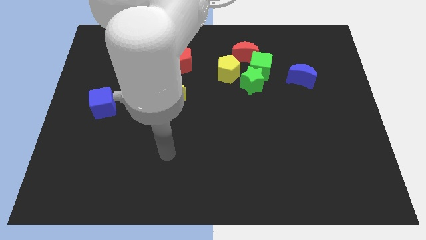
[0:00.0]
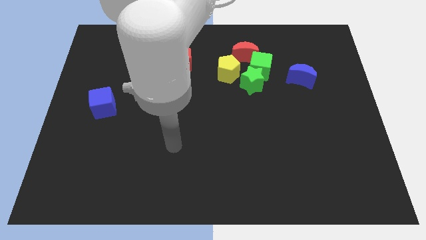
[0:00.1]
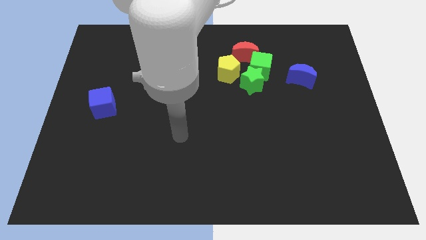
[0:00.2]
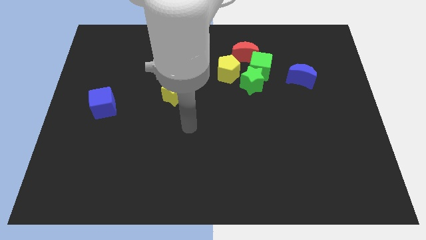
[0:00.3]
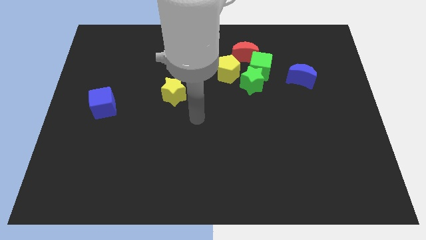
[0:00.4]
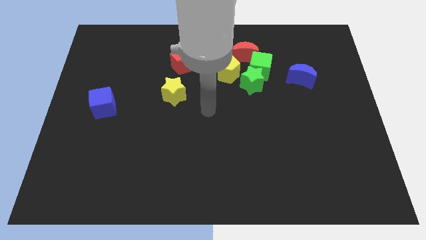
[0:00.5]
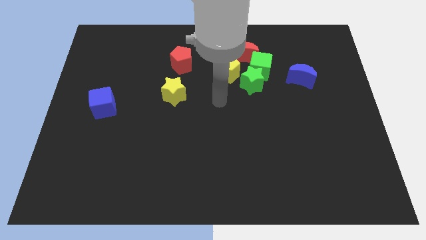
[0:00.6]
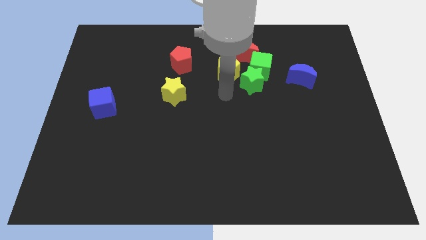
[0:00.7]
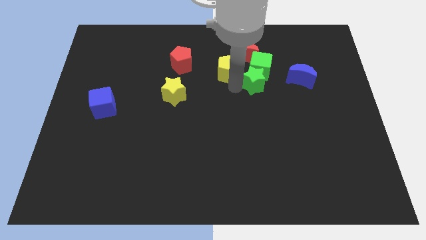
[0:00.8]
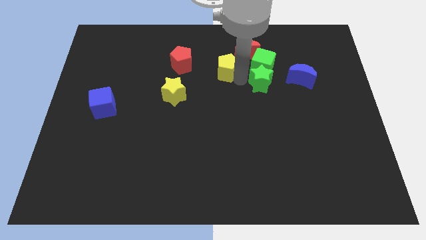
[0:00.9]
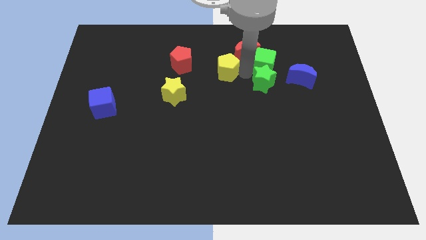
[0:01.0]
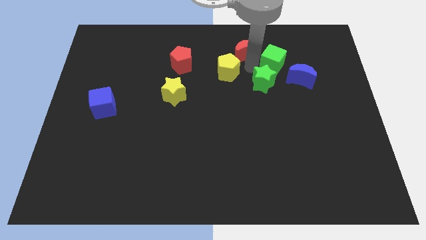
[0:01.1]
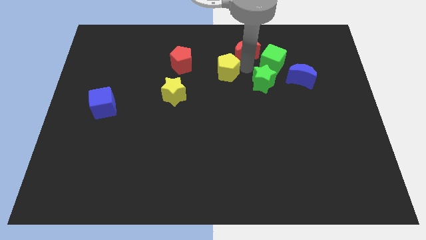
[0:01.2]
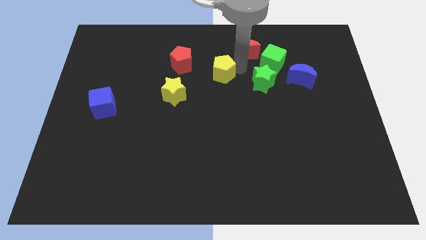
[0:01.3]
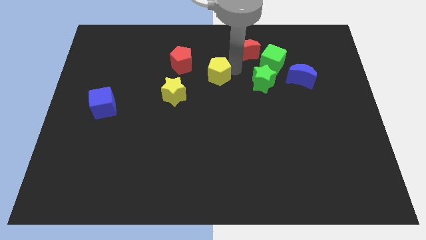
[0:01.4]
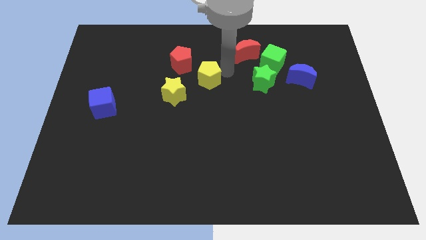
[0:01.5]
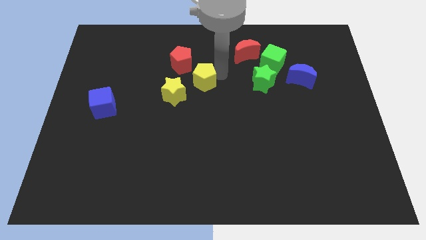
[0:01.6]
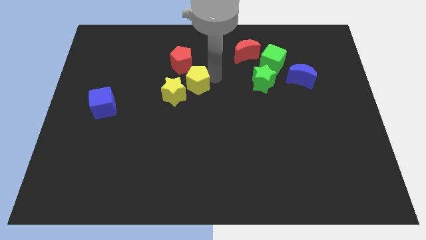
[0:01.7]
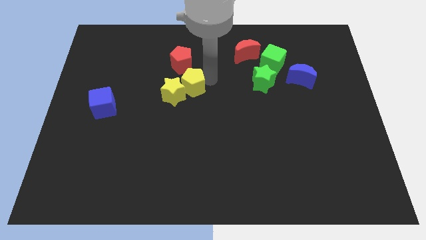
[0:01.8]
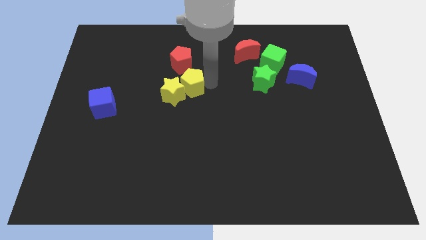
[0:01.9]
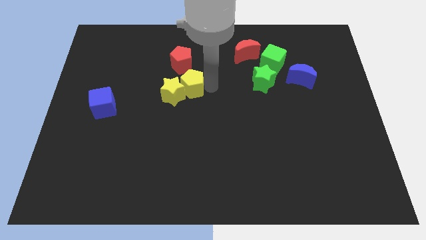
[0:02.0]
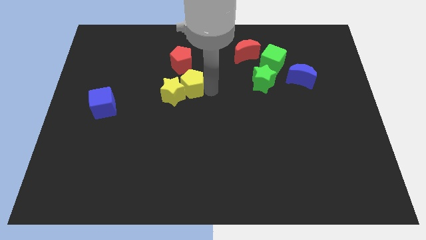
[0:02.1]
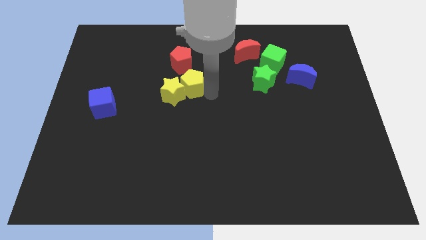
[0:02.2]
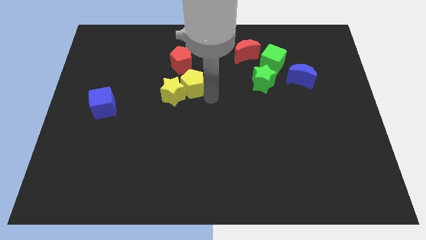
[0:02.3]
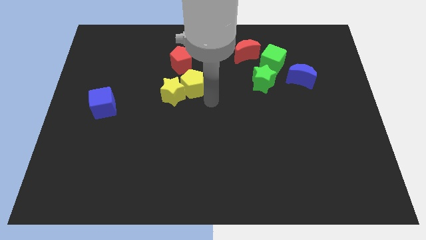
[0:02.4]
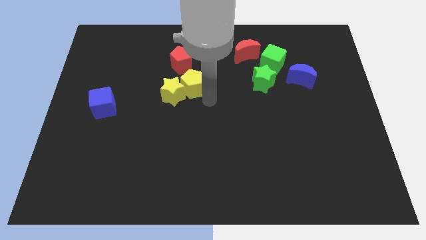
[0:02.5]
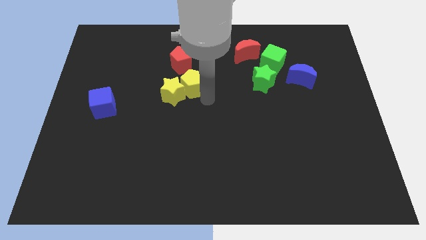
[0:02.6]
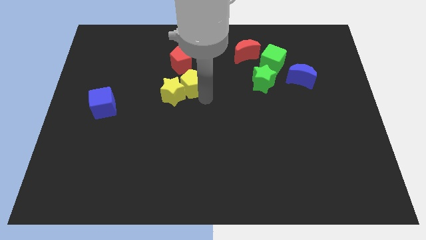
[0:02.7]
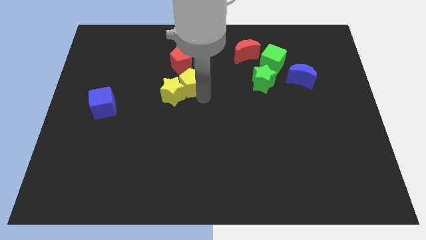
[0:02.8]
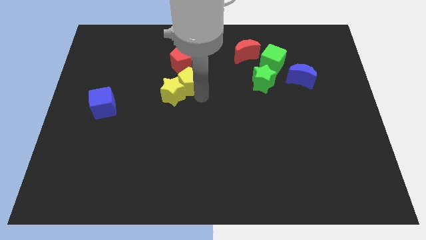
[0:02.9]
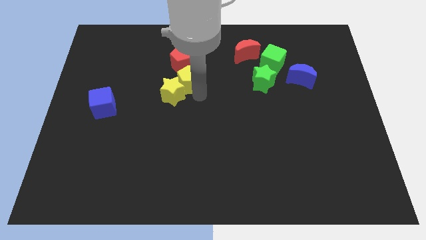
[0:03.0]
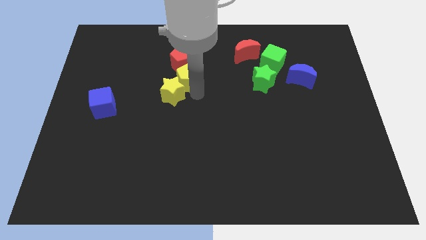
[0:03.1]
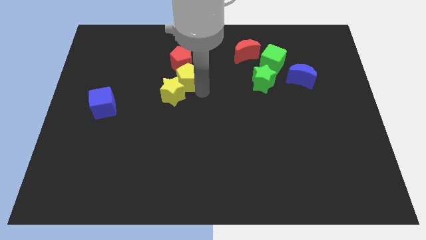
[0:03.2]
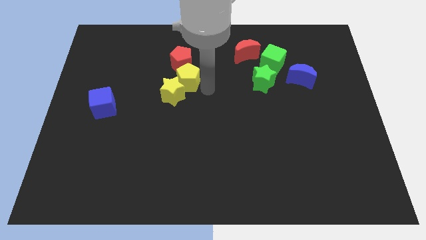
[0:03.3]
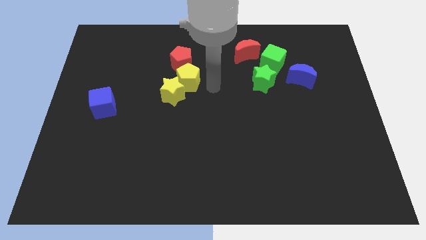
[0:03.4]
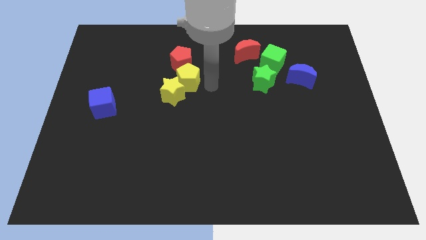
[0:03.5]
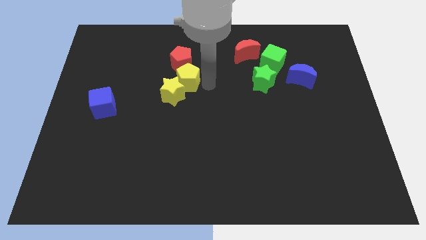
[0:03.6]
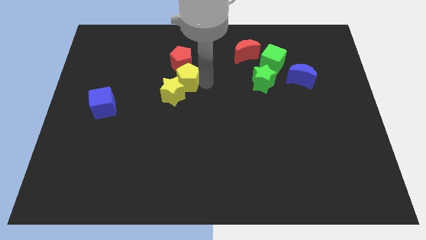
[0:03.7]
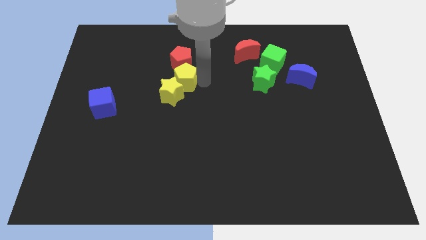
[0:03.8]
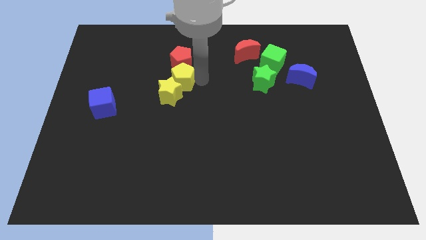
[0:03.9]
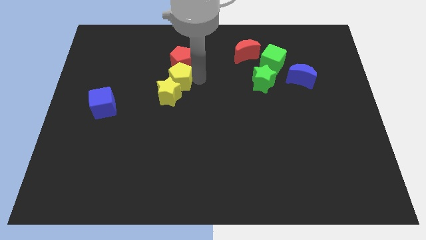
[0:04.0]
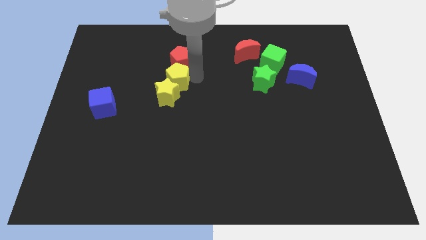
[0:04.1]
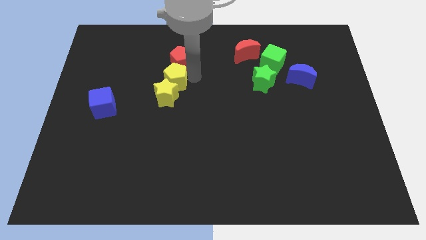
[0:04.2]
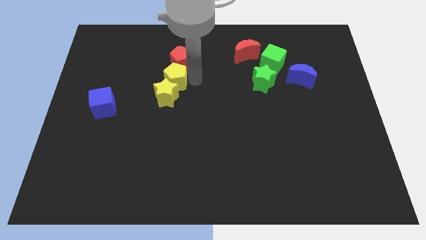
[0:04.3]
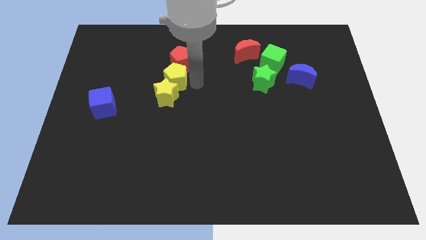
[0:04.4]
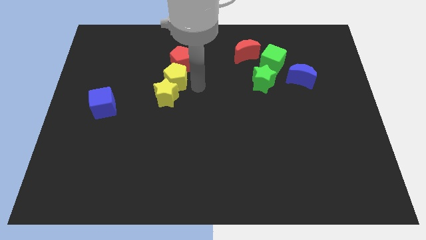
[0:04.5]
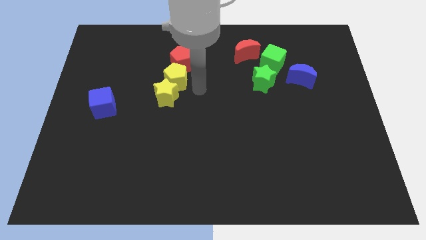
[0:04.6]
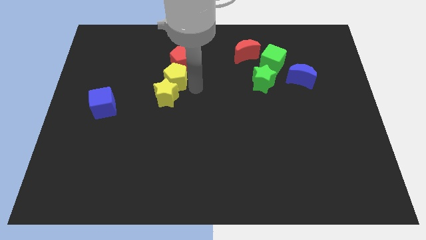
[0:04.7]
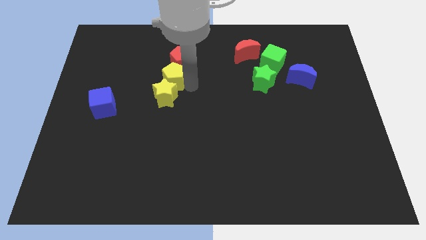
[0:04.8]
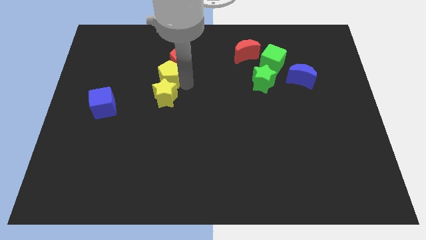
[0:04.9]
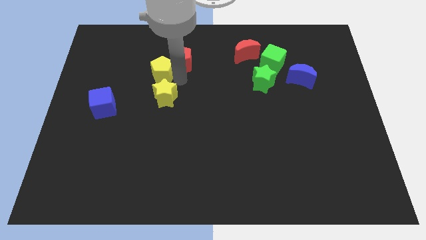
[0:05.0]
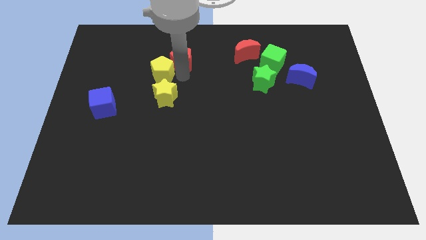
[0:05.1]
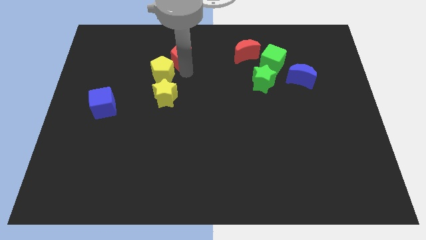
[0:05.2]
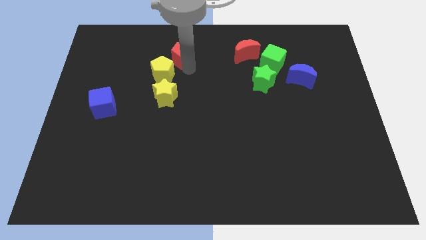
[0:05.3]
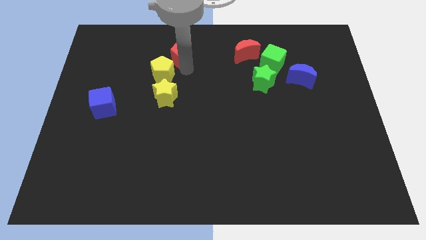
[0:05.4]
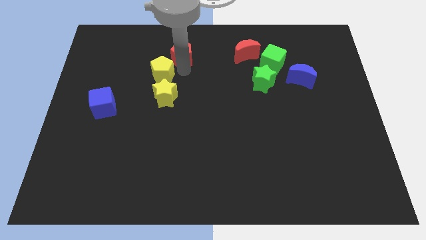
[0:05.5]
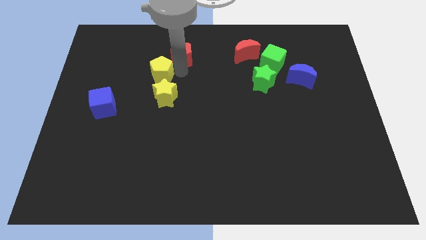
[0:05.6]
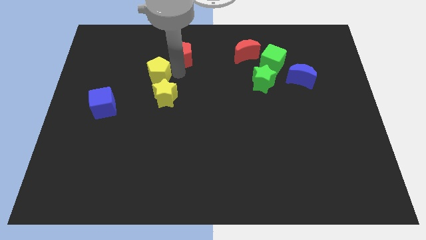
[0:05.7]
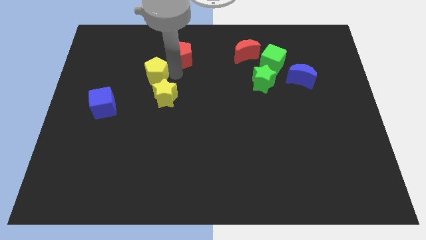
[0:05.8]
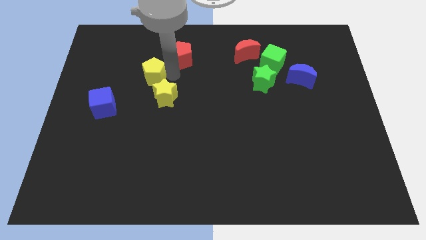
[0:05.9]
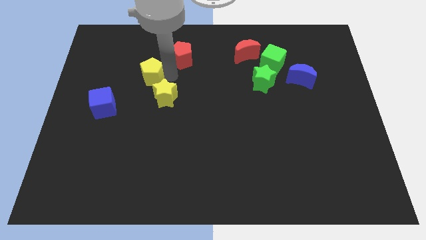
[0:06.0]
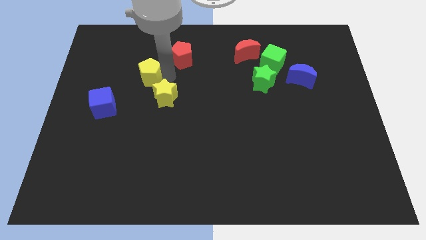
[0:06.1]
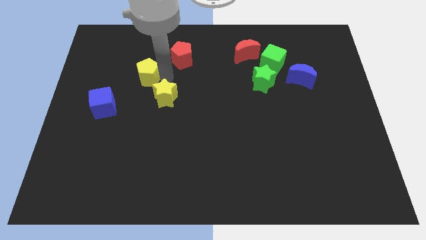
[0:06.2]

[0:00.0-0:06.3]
push the yellow pentagon to the left

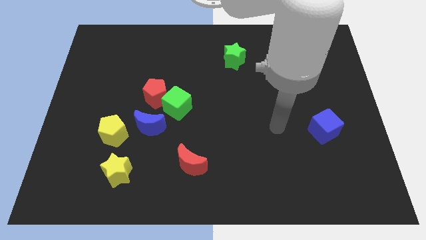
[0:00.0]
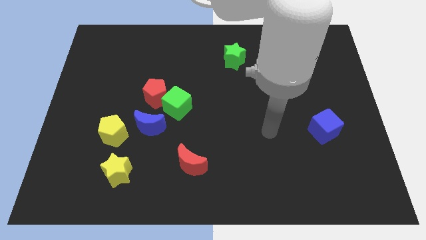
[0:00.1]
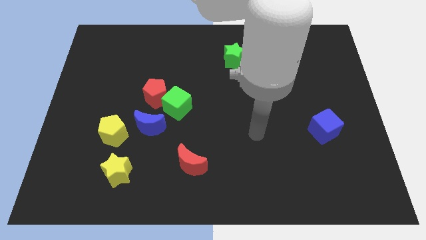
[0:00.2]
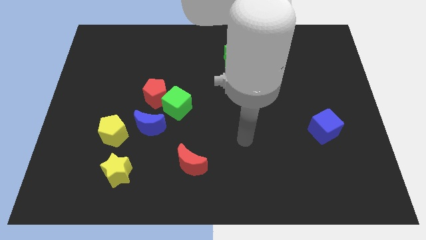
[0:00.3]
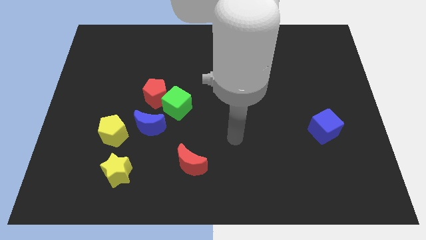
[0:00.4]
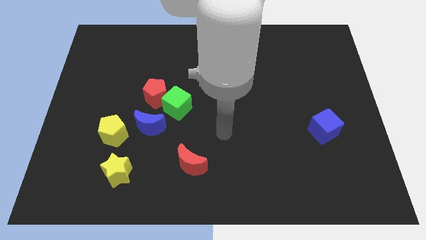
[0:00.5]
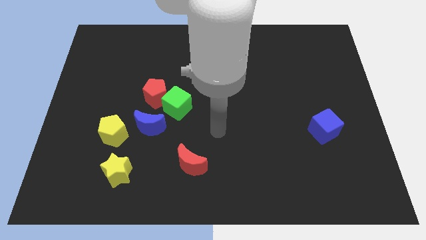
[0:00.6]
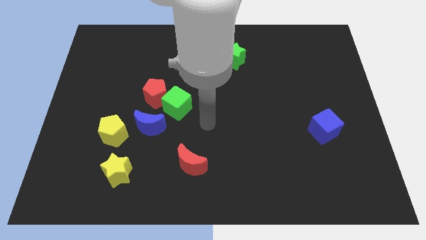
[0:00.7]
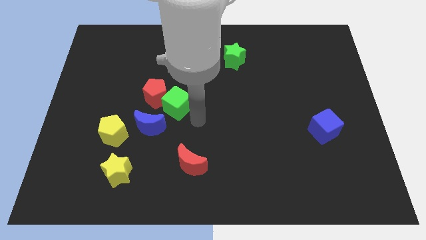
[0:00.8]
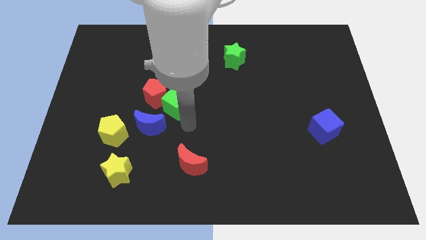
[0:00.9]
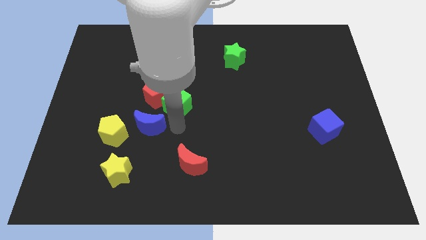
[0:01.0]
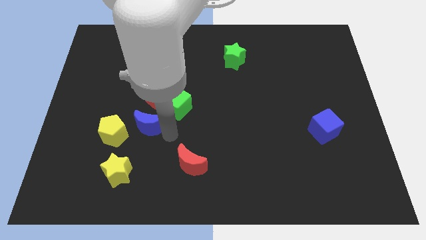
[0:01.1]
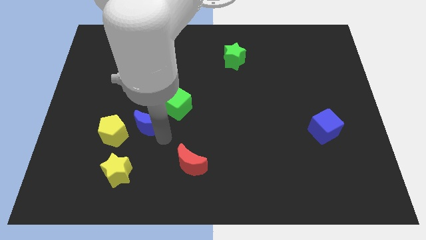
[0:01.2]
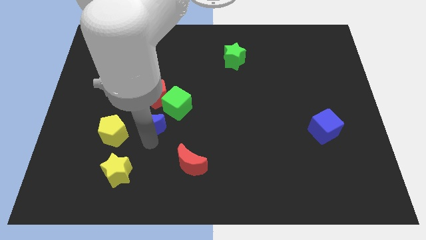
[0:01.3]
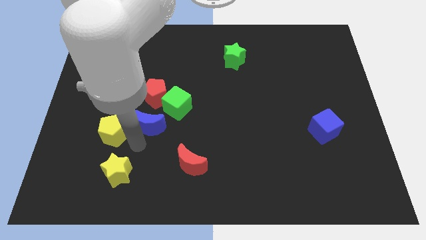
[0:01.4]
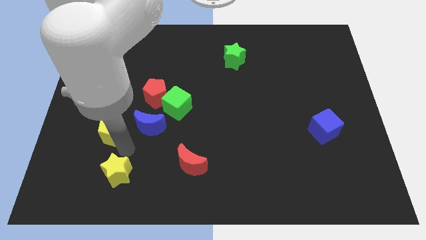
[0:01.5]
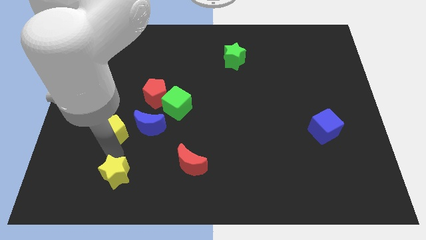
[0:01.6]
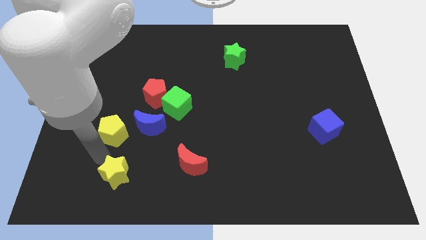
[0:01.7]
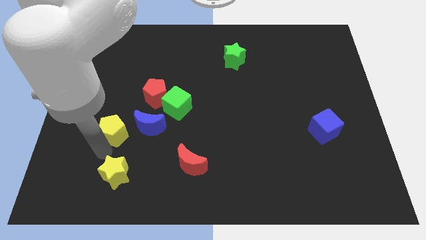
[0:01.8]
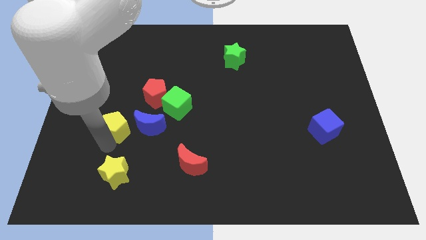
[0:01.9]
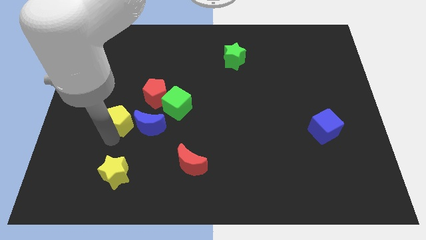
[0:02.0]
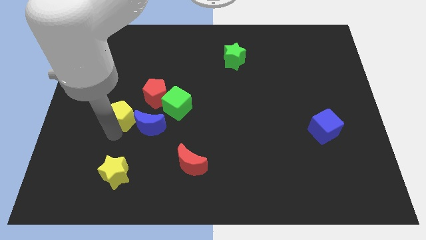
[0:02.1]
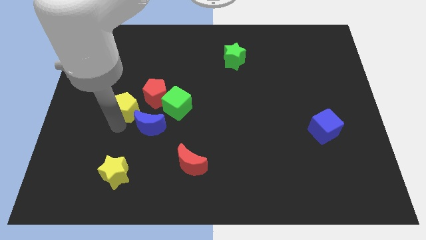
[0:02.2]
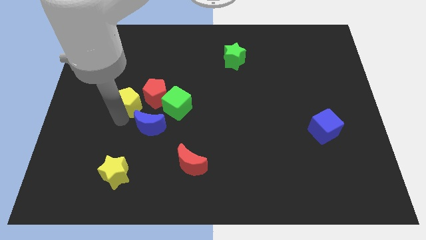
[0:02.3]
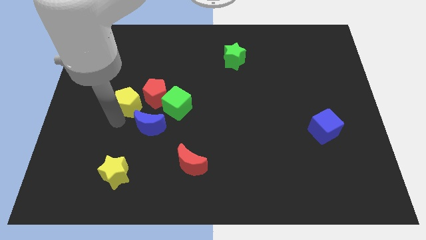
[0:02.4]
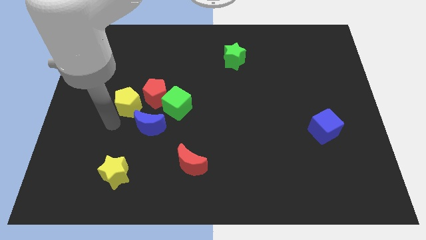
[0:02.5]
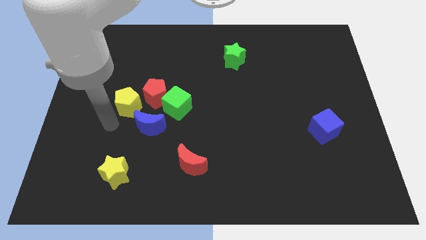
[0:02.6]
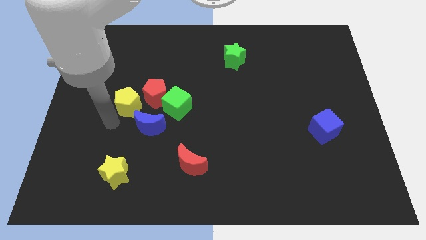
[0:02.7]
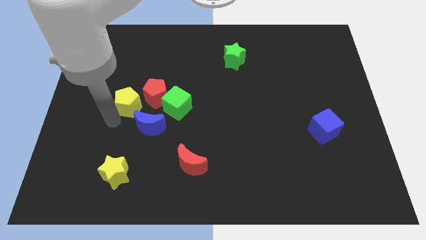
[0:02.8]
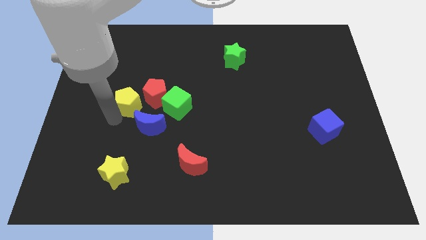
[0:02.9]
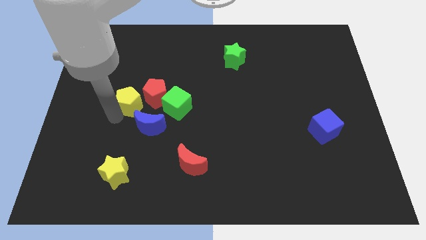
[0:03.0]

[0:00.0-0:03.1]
slightly move the yellow pentagon diagonally up and to the right
